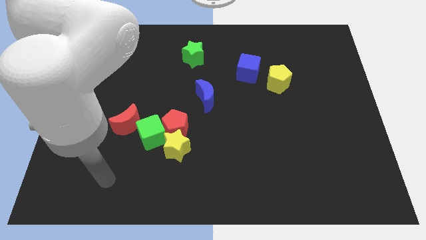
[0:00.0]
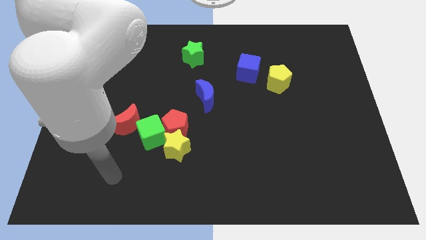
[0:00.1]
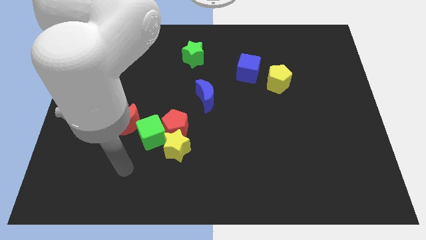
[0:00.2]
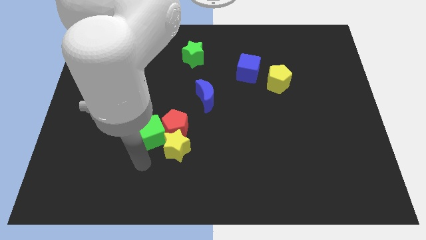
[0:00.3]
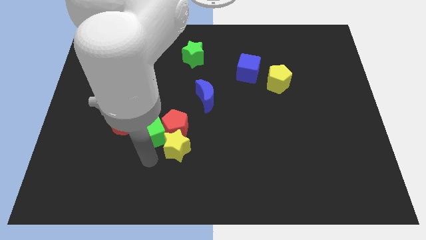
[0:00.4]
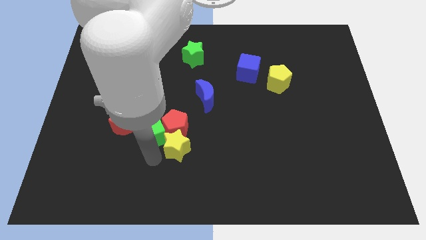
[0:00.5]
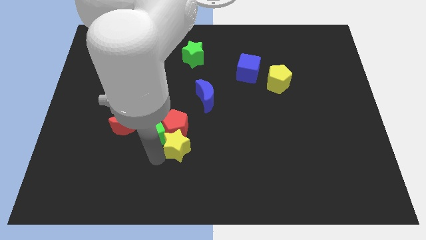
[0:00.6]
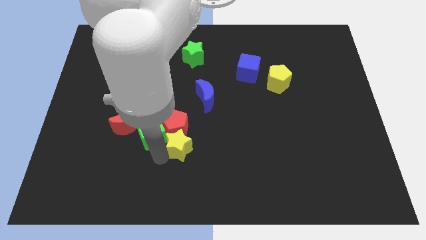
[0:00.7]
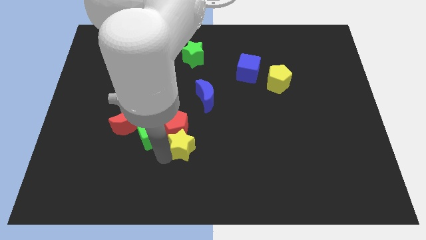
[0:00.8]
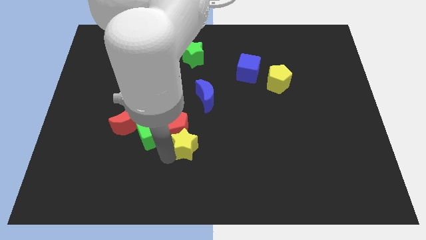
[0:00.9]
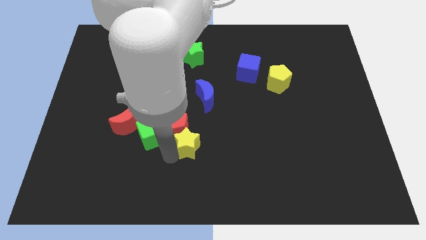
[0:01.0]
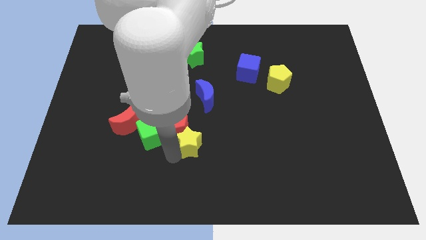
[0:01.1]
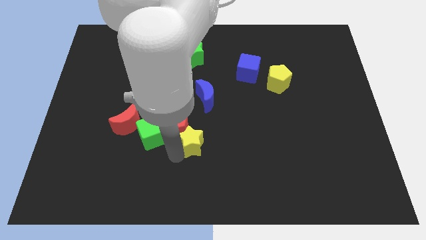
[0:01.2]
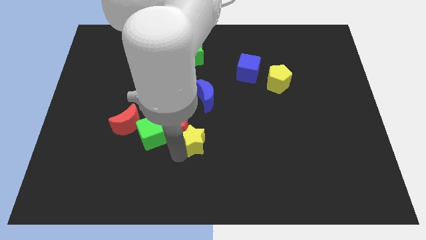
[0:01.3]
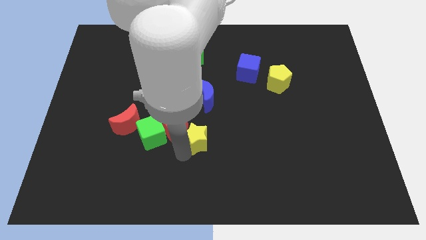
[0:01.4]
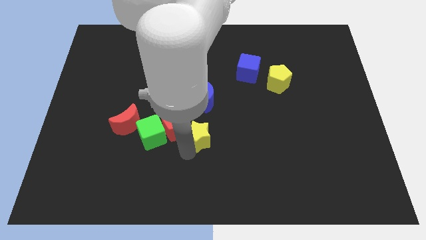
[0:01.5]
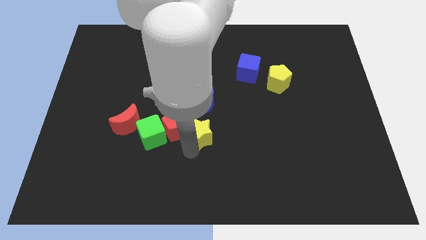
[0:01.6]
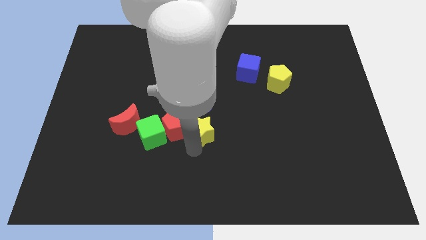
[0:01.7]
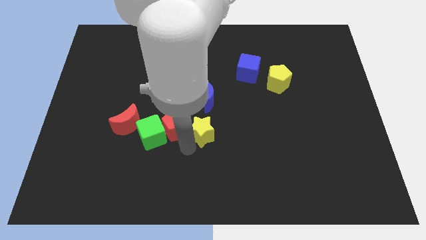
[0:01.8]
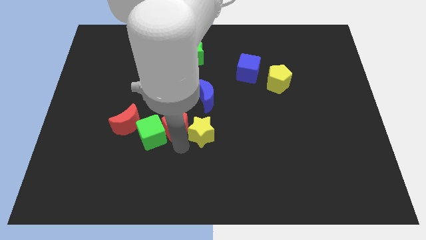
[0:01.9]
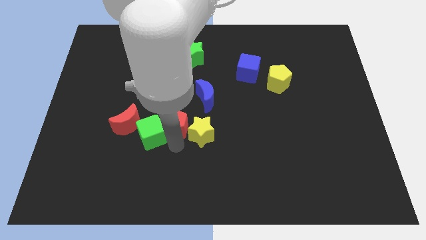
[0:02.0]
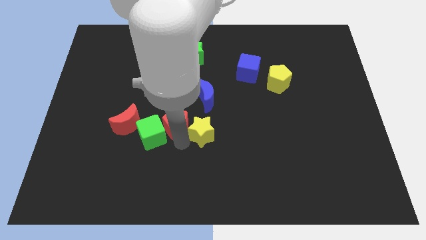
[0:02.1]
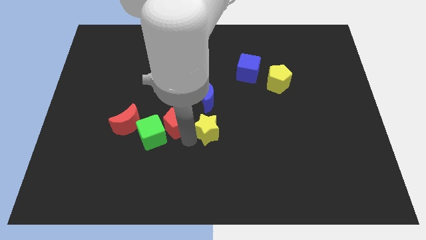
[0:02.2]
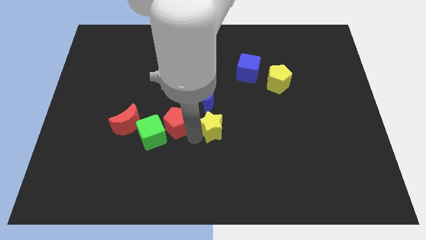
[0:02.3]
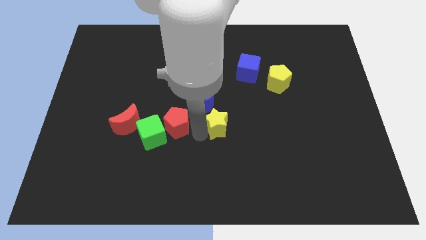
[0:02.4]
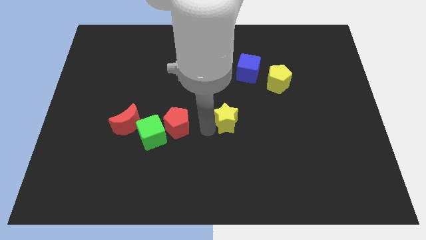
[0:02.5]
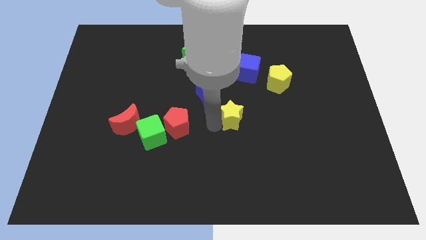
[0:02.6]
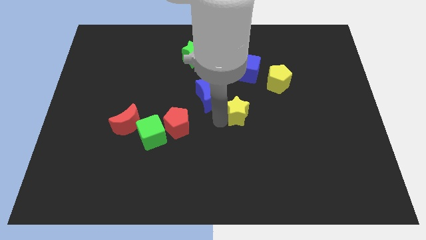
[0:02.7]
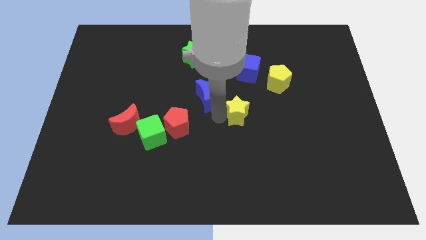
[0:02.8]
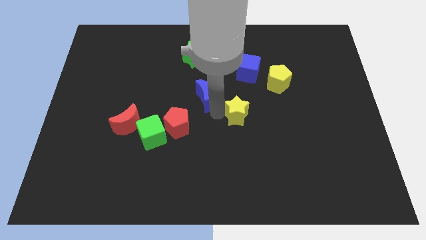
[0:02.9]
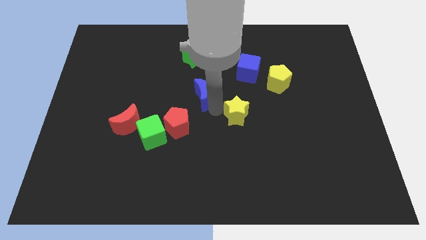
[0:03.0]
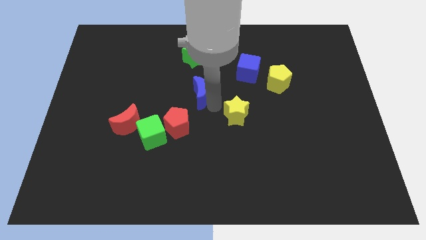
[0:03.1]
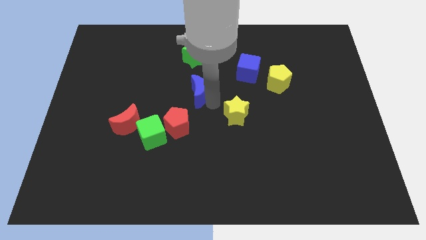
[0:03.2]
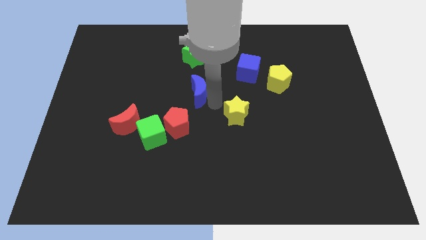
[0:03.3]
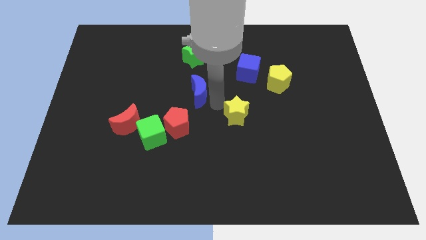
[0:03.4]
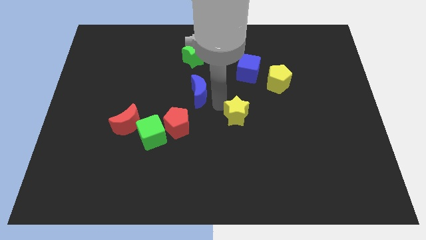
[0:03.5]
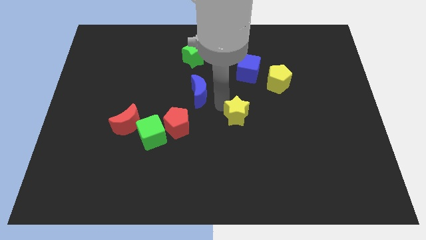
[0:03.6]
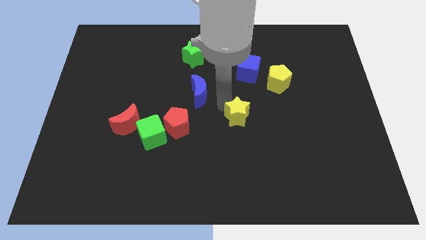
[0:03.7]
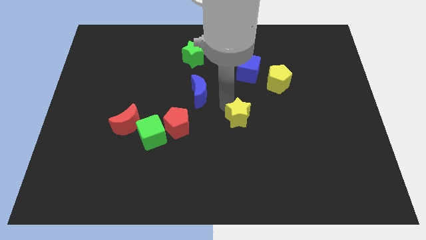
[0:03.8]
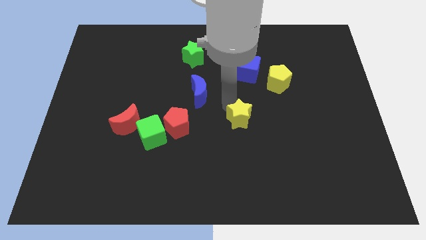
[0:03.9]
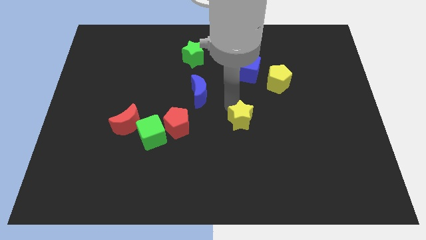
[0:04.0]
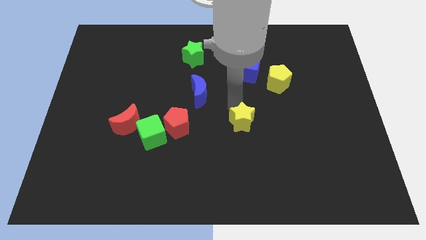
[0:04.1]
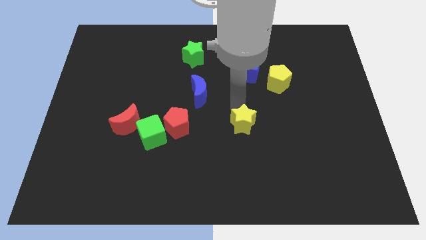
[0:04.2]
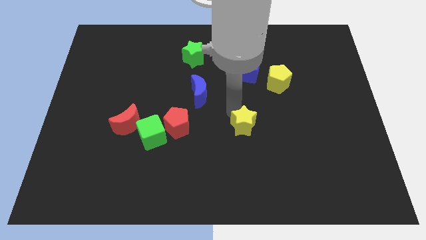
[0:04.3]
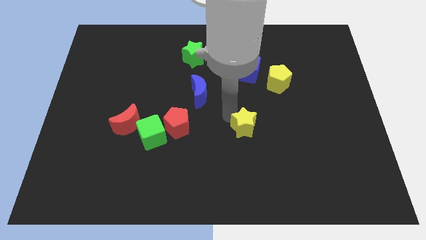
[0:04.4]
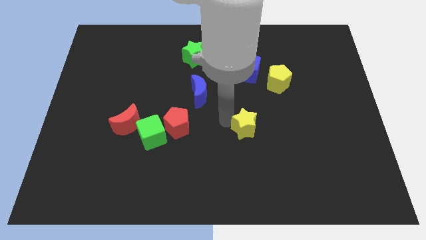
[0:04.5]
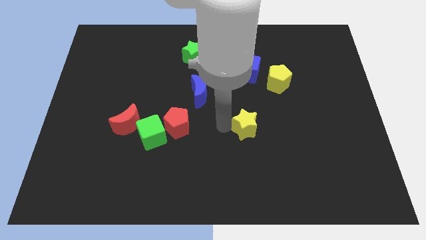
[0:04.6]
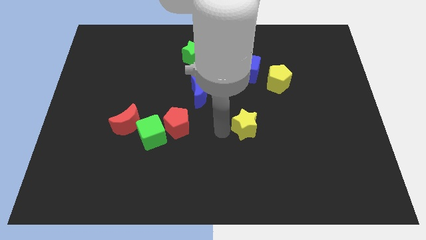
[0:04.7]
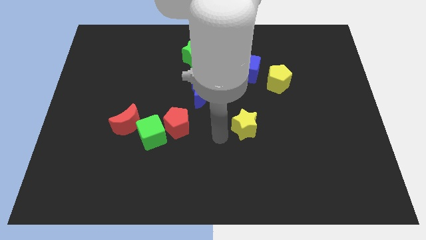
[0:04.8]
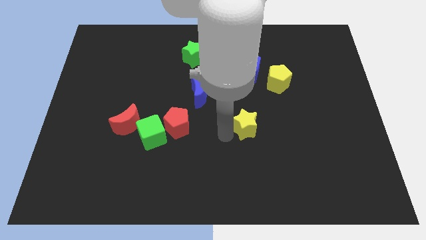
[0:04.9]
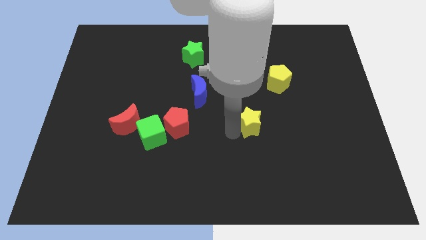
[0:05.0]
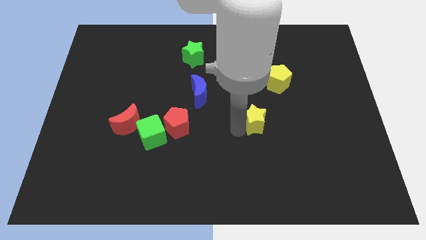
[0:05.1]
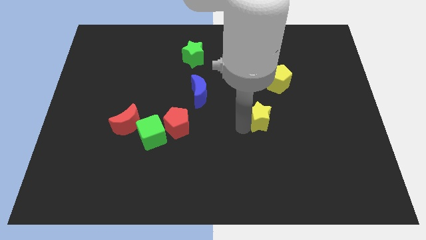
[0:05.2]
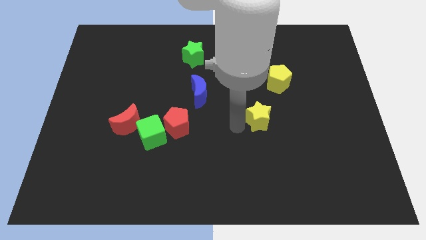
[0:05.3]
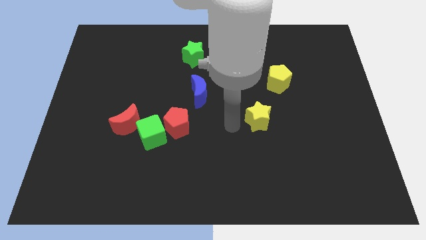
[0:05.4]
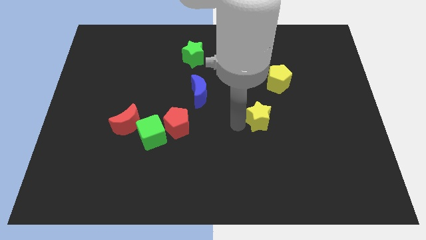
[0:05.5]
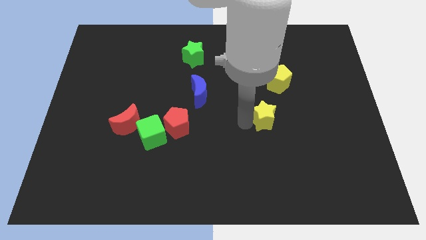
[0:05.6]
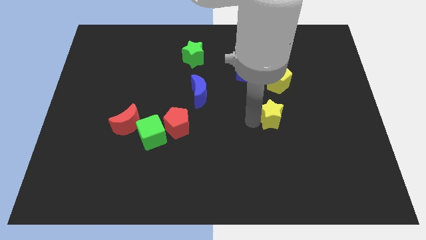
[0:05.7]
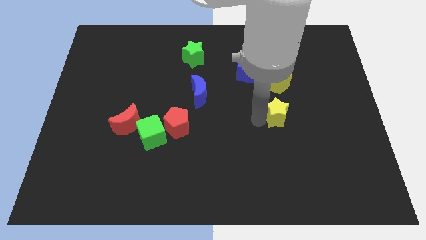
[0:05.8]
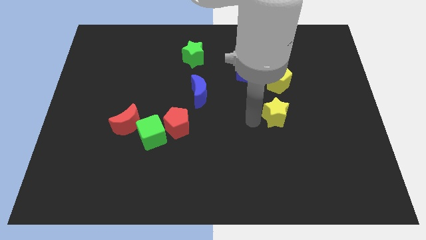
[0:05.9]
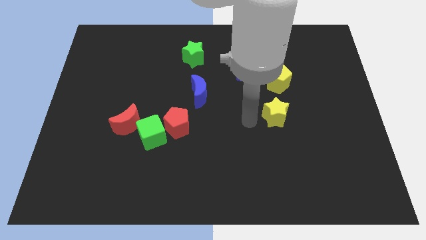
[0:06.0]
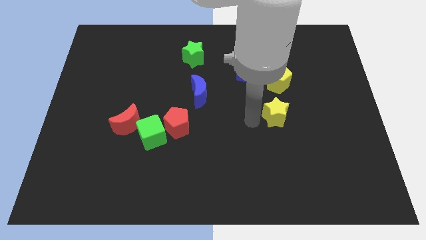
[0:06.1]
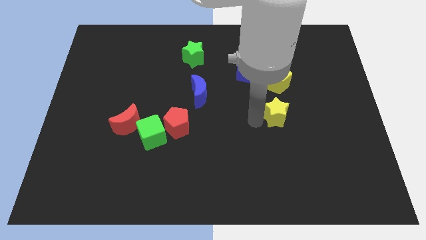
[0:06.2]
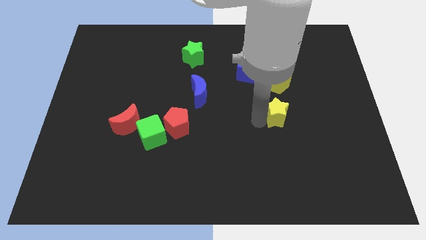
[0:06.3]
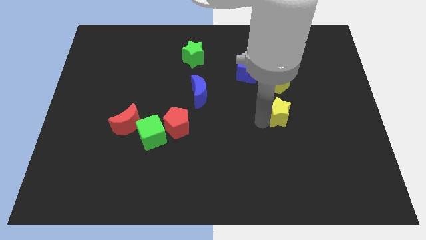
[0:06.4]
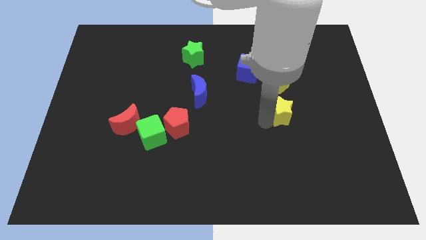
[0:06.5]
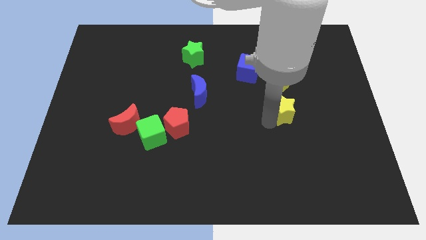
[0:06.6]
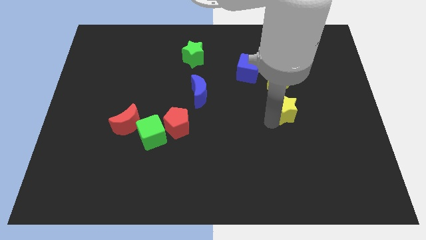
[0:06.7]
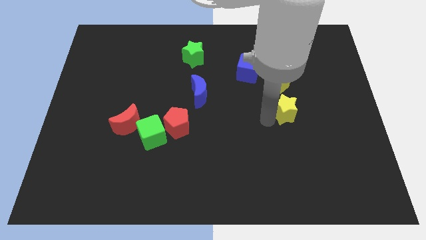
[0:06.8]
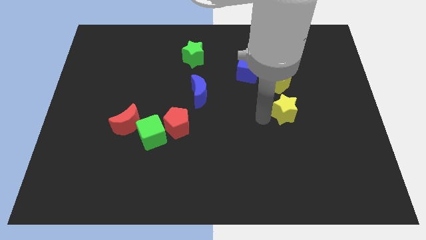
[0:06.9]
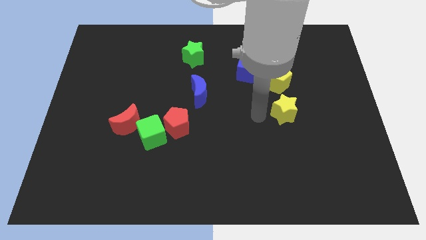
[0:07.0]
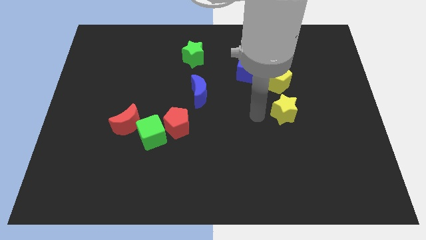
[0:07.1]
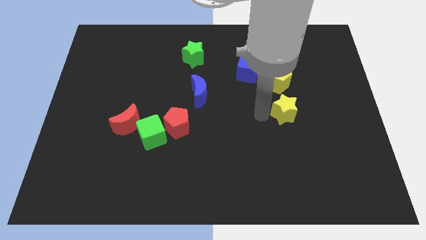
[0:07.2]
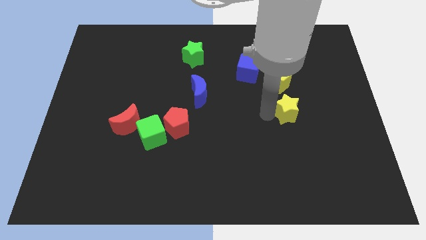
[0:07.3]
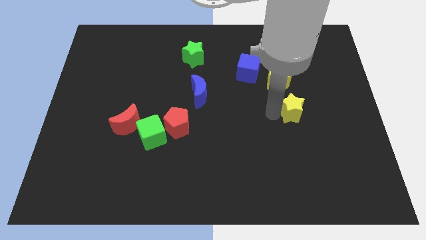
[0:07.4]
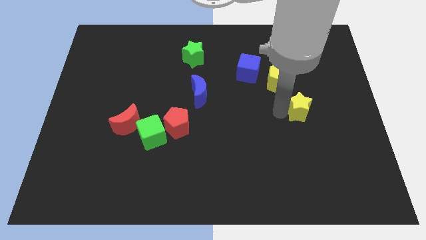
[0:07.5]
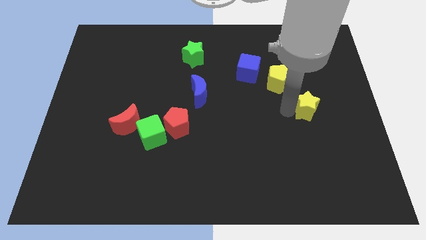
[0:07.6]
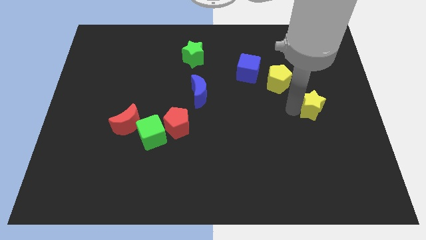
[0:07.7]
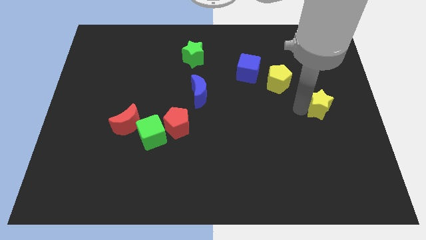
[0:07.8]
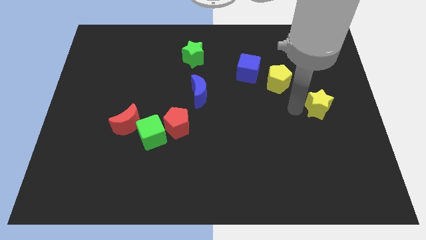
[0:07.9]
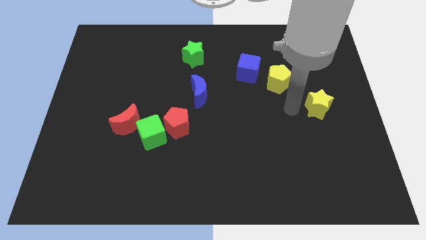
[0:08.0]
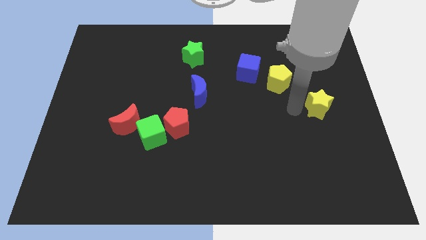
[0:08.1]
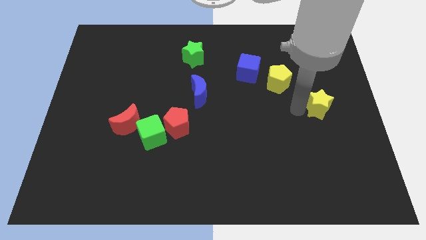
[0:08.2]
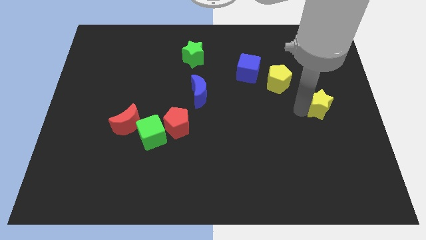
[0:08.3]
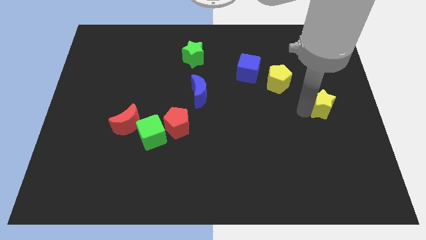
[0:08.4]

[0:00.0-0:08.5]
slide the yellow star to the right side of the board
